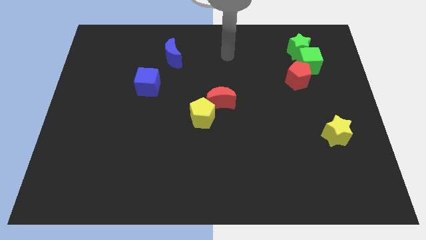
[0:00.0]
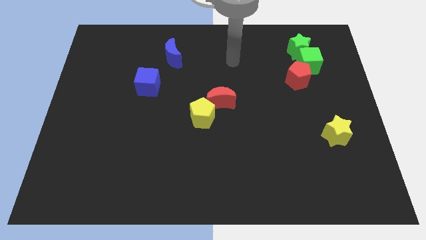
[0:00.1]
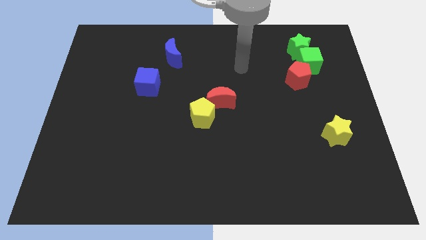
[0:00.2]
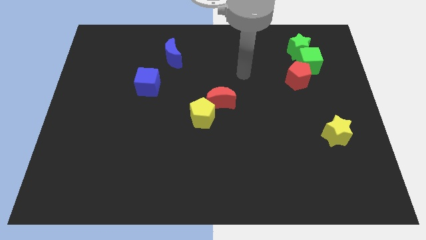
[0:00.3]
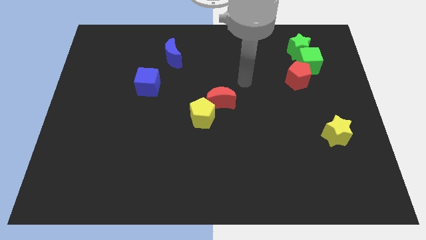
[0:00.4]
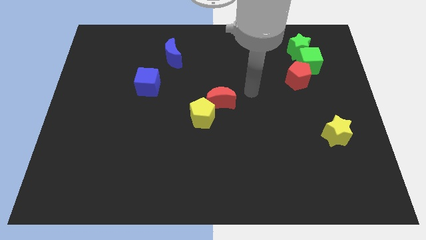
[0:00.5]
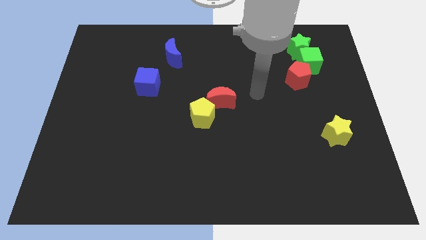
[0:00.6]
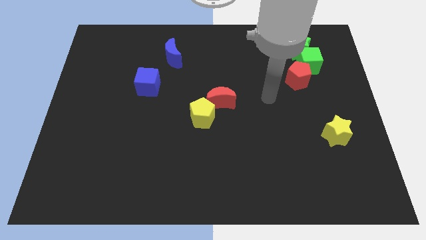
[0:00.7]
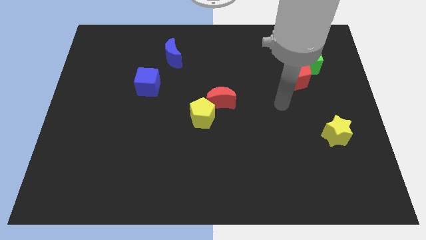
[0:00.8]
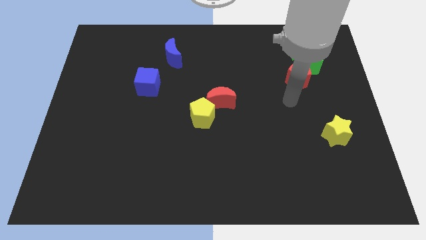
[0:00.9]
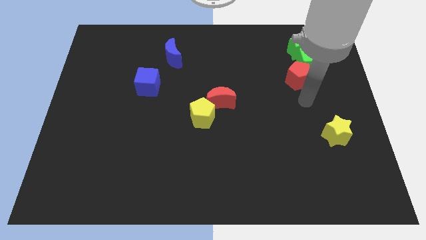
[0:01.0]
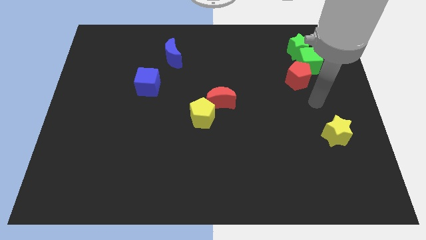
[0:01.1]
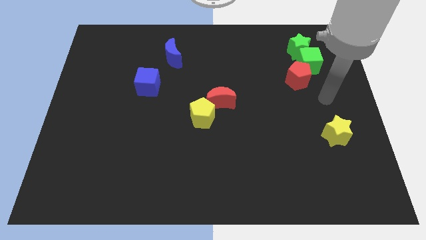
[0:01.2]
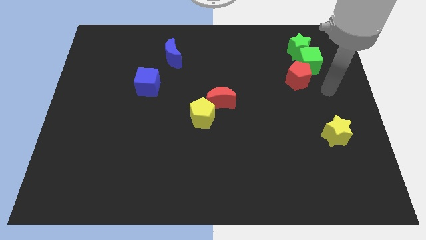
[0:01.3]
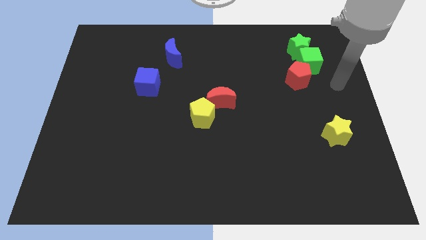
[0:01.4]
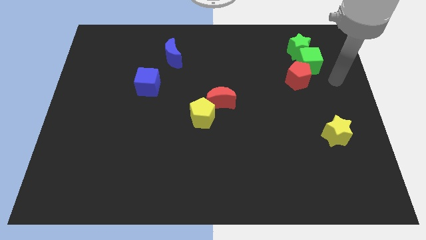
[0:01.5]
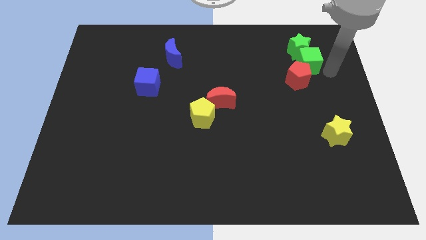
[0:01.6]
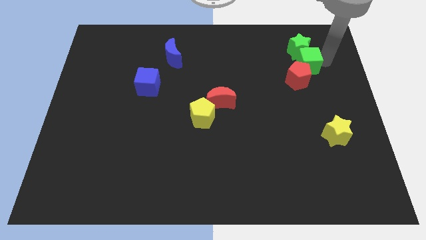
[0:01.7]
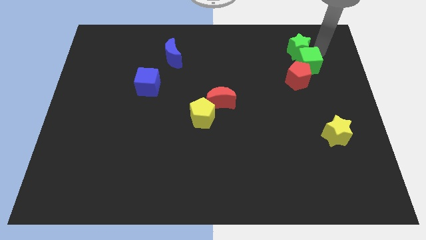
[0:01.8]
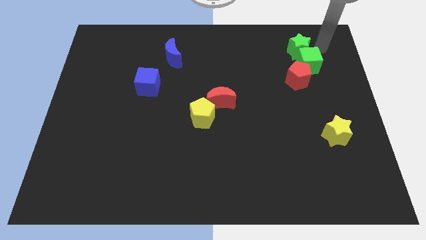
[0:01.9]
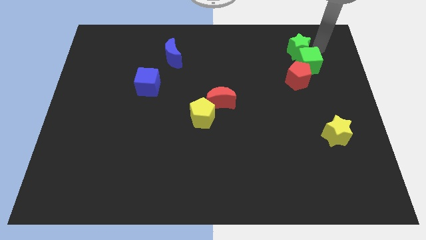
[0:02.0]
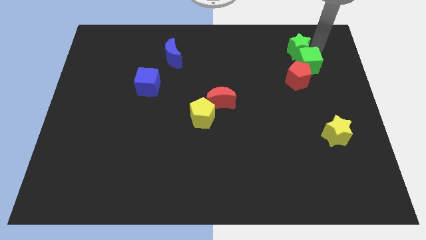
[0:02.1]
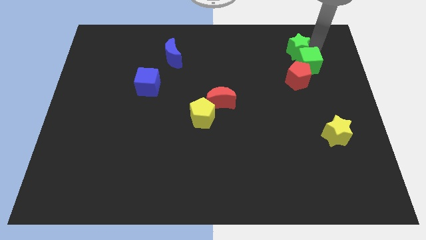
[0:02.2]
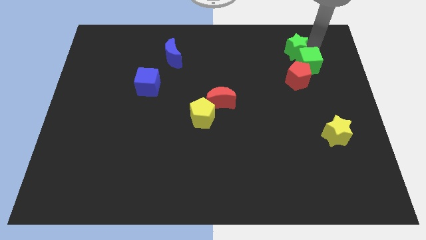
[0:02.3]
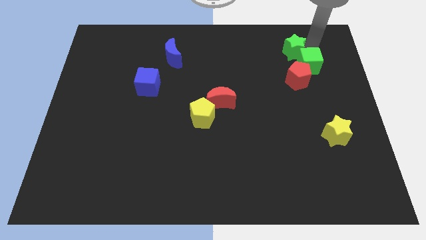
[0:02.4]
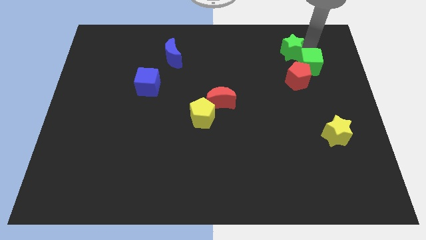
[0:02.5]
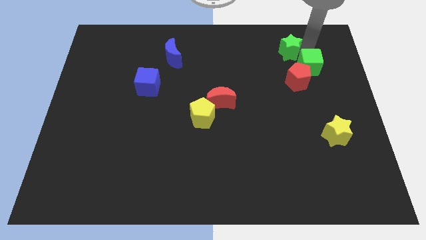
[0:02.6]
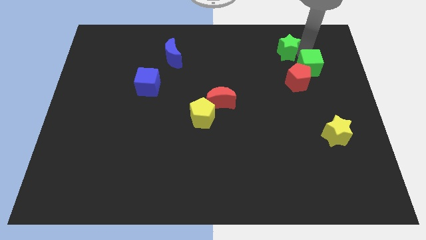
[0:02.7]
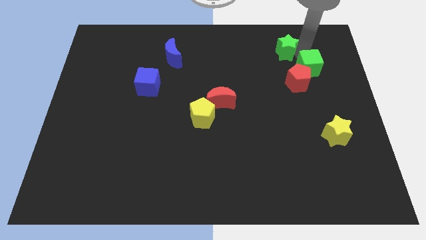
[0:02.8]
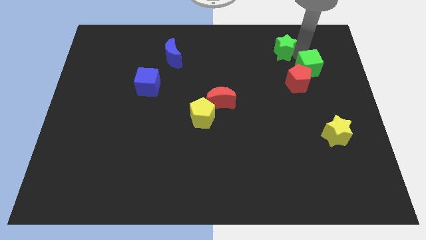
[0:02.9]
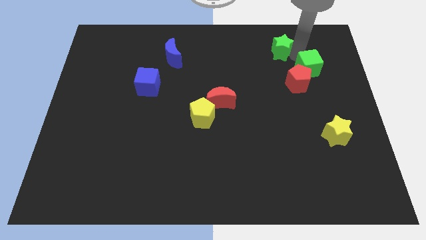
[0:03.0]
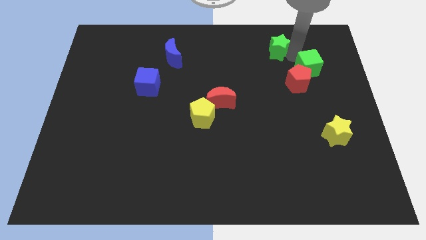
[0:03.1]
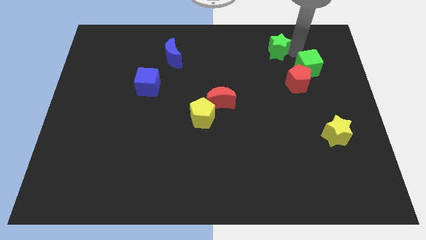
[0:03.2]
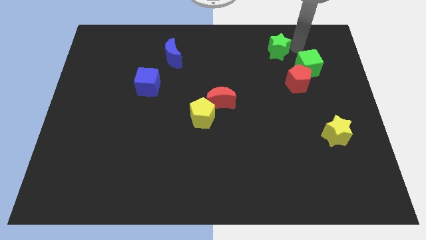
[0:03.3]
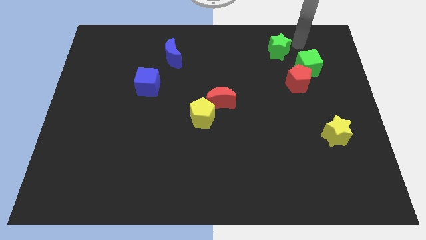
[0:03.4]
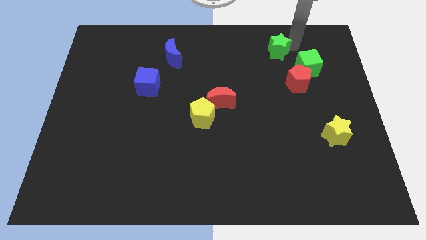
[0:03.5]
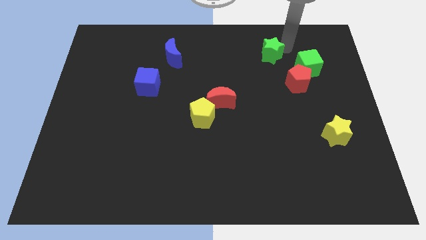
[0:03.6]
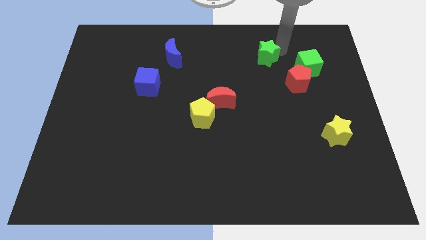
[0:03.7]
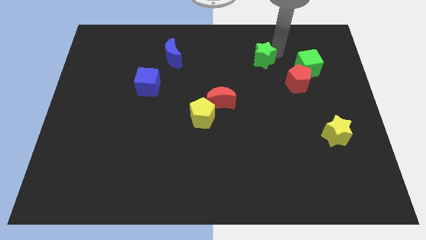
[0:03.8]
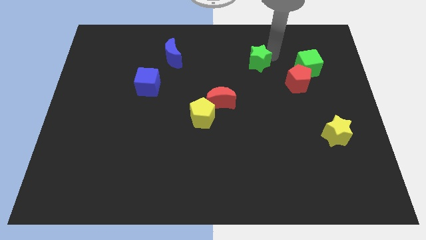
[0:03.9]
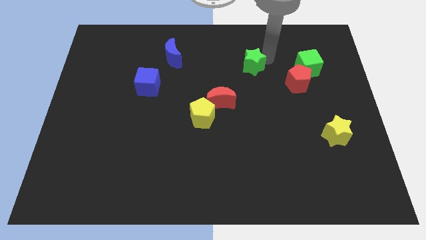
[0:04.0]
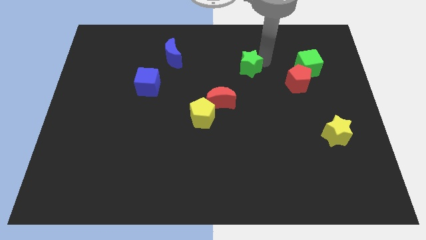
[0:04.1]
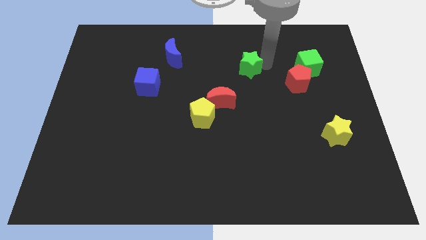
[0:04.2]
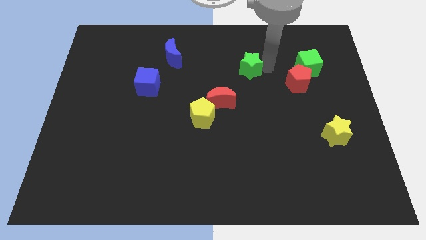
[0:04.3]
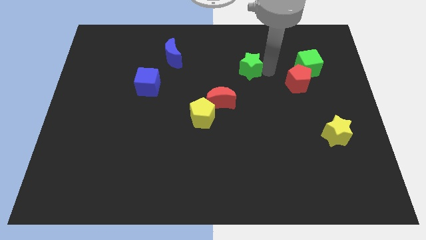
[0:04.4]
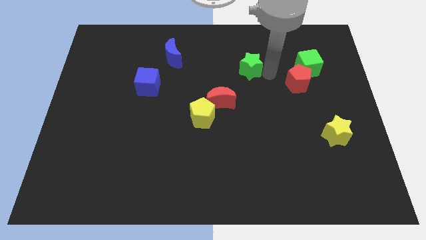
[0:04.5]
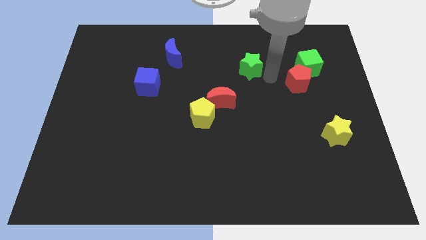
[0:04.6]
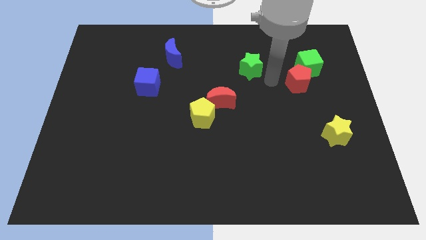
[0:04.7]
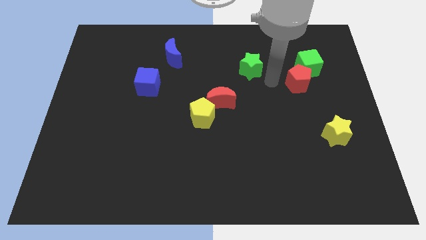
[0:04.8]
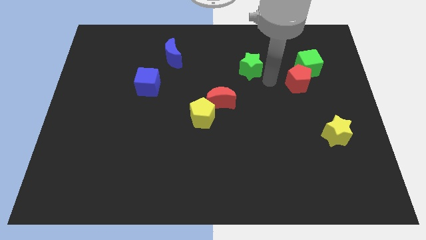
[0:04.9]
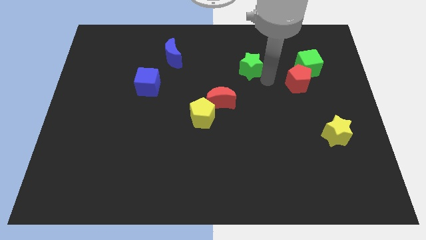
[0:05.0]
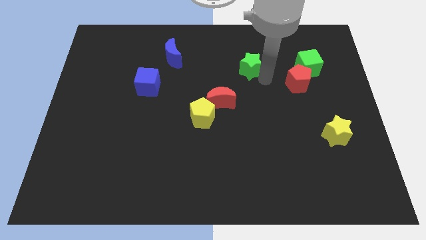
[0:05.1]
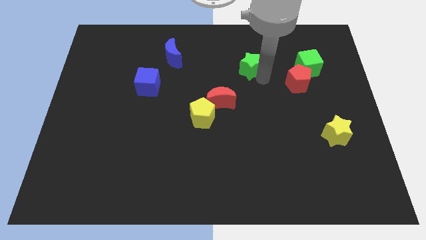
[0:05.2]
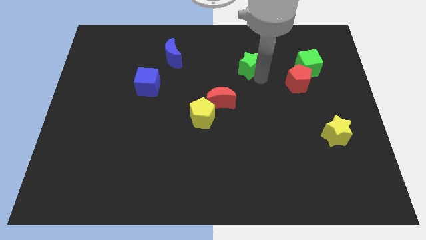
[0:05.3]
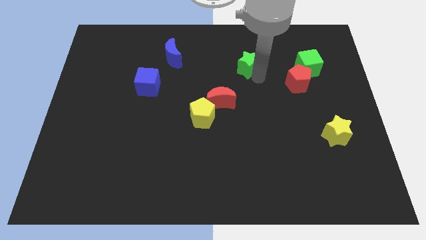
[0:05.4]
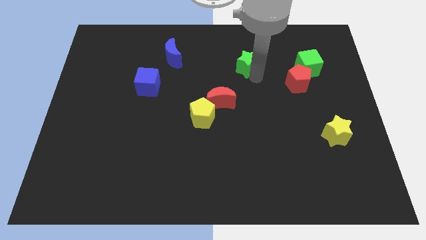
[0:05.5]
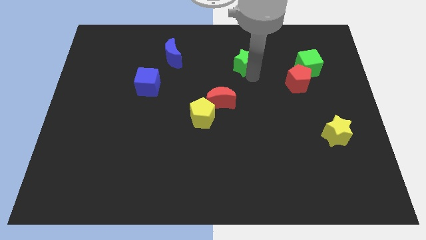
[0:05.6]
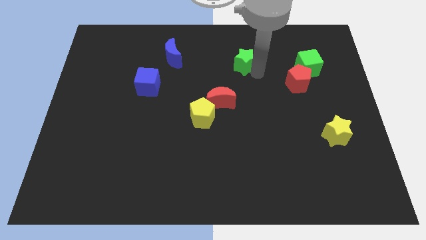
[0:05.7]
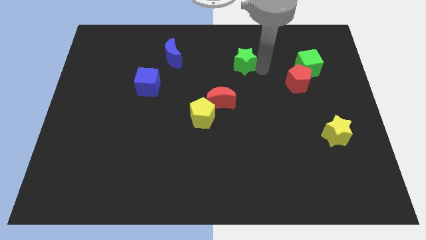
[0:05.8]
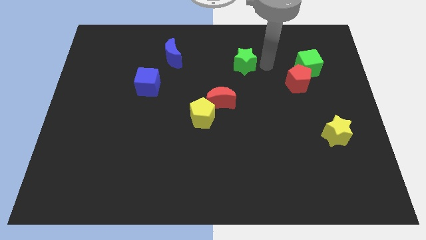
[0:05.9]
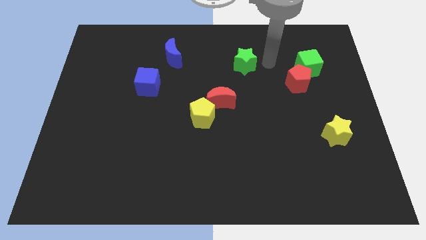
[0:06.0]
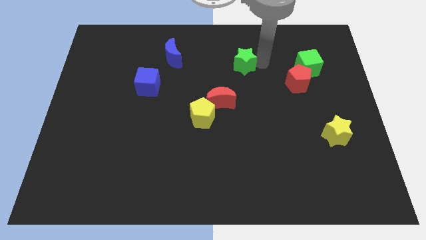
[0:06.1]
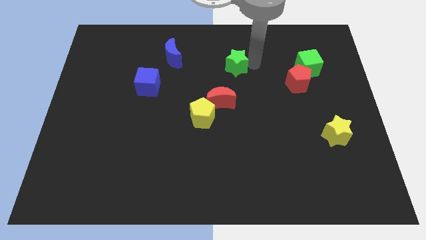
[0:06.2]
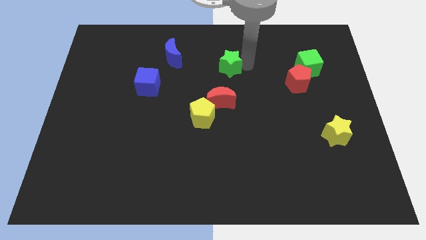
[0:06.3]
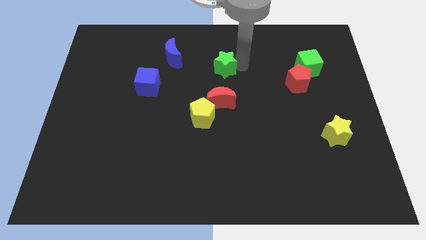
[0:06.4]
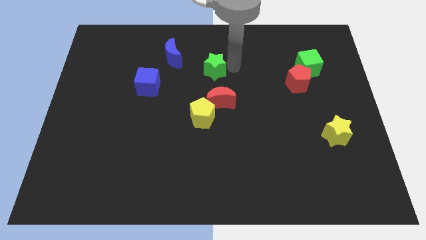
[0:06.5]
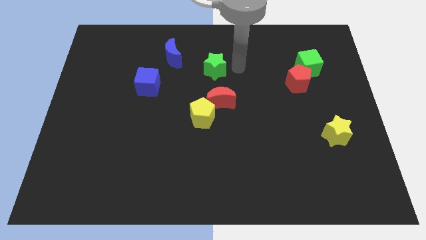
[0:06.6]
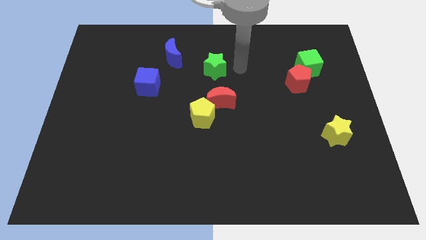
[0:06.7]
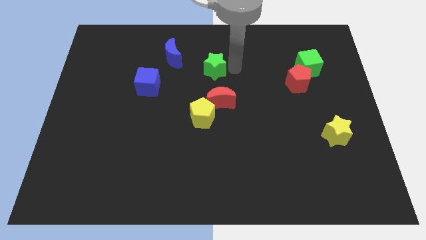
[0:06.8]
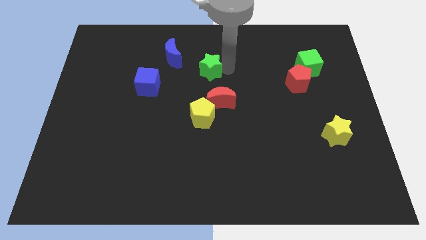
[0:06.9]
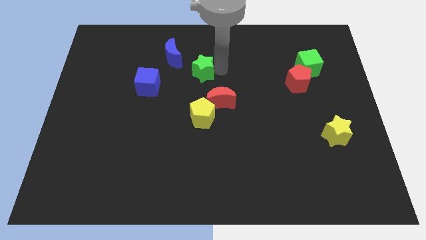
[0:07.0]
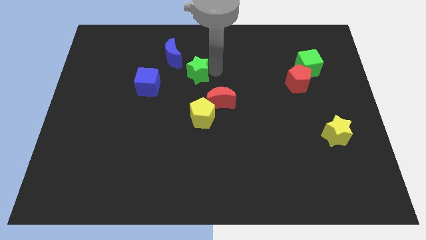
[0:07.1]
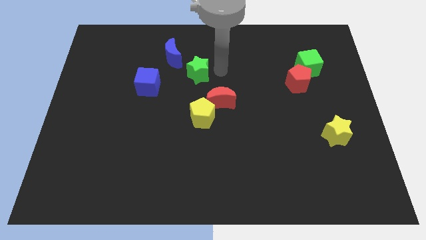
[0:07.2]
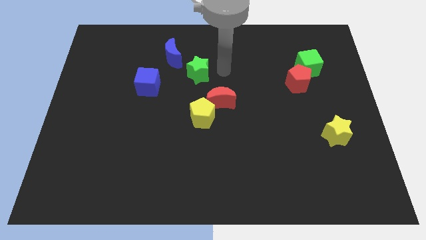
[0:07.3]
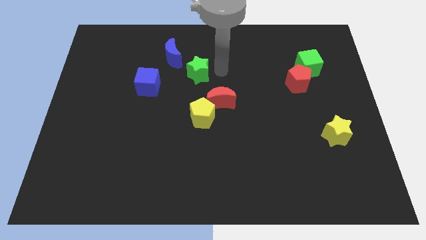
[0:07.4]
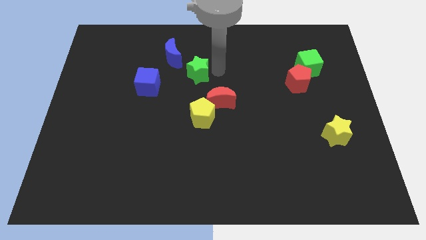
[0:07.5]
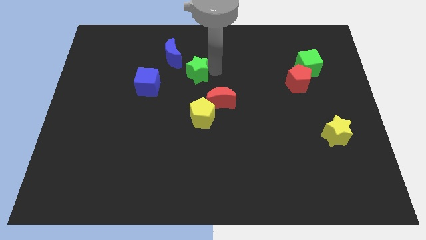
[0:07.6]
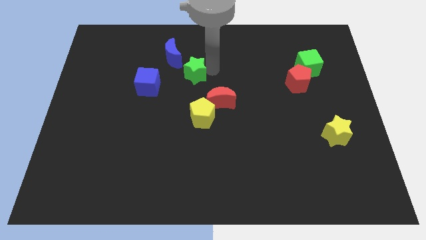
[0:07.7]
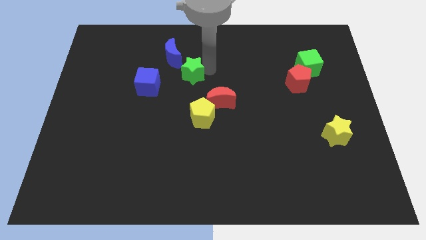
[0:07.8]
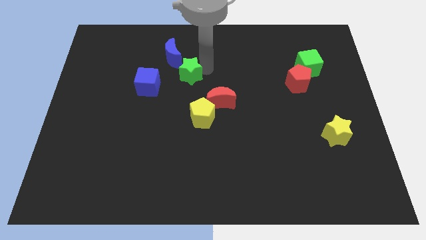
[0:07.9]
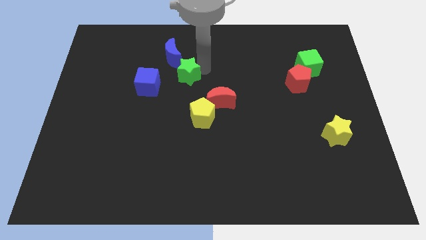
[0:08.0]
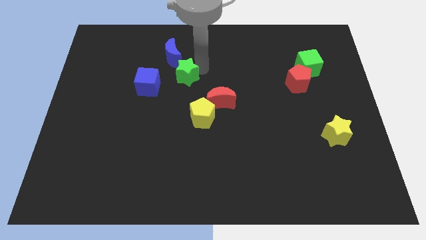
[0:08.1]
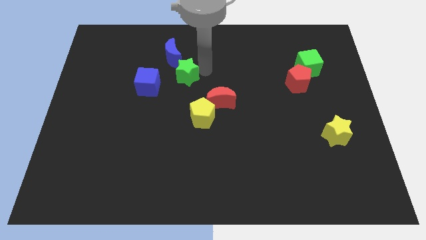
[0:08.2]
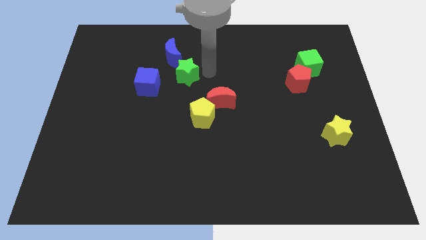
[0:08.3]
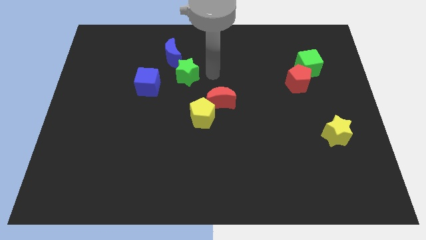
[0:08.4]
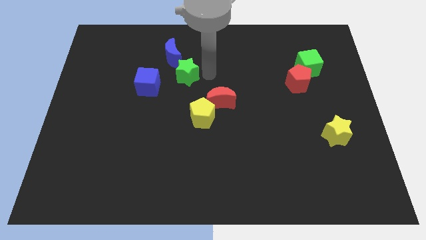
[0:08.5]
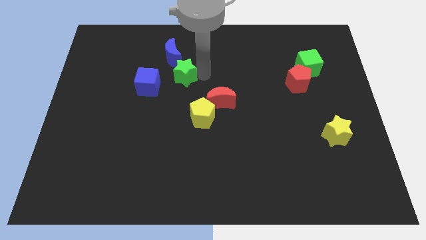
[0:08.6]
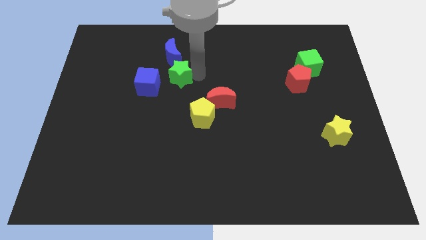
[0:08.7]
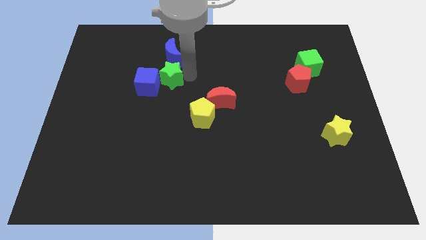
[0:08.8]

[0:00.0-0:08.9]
put the green star towards the blue cube
